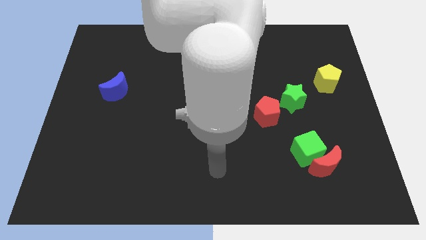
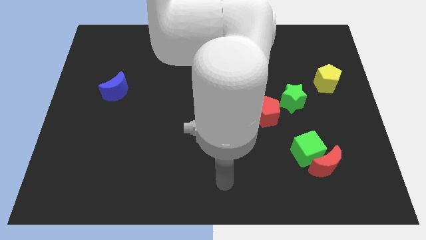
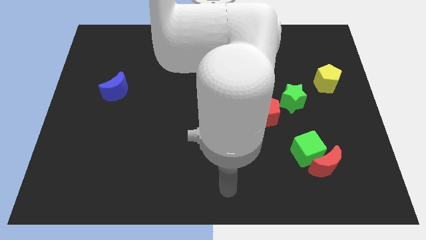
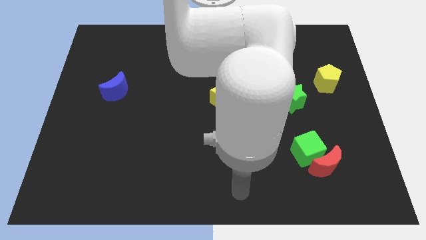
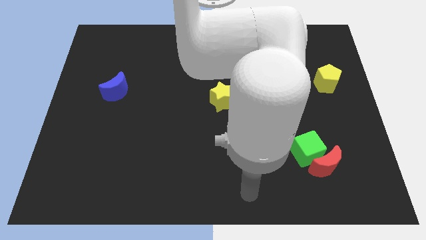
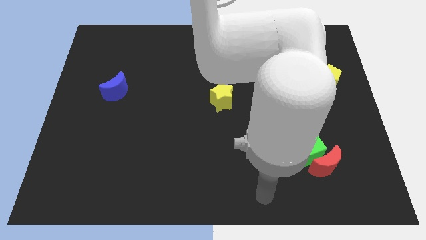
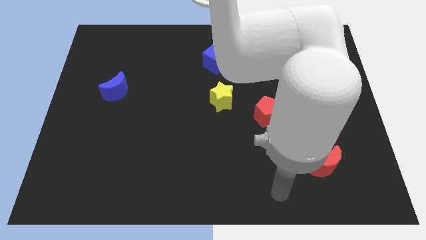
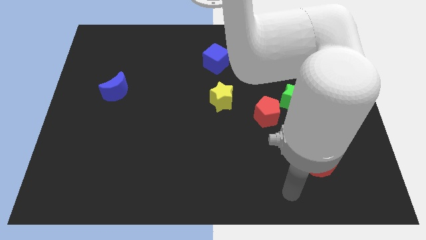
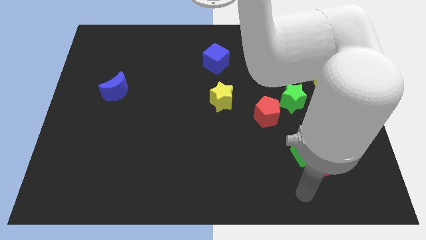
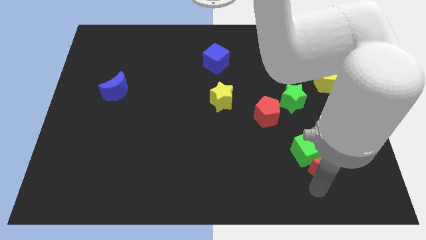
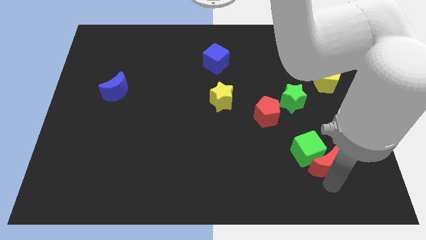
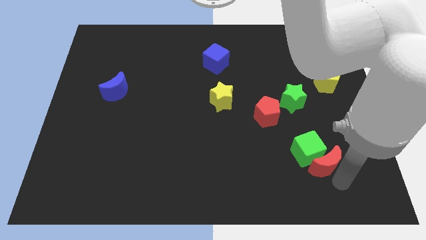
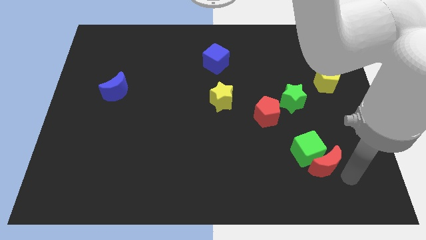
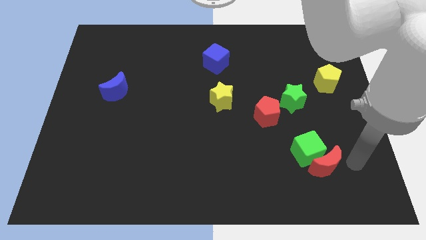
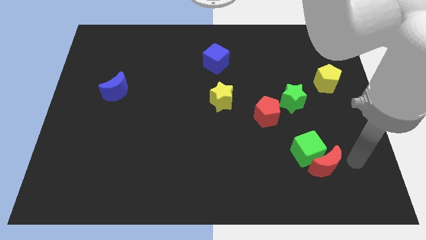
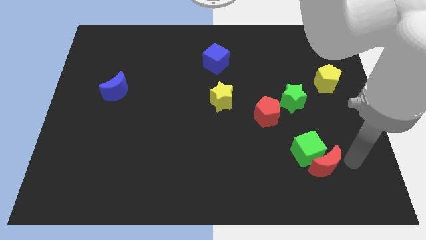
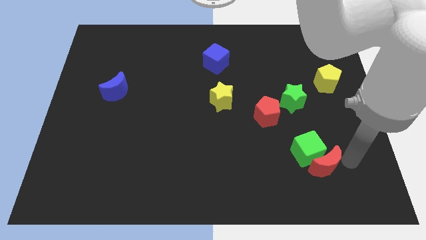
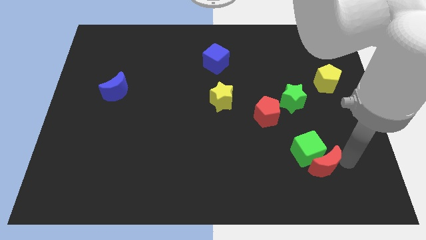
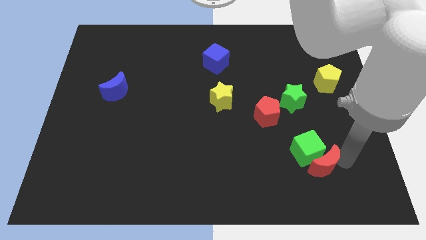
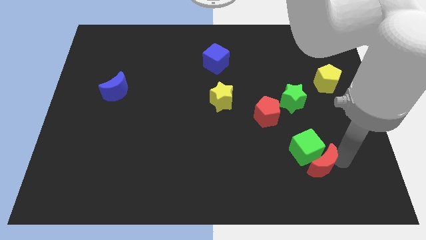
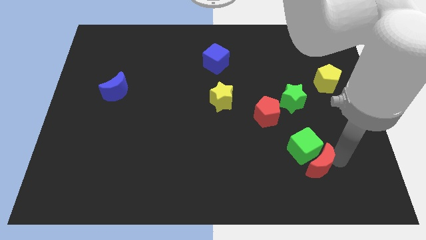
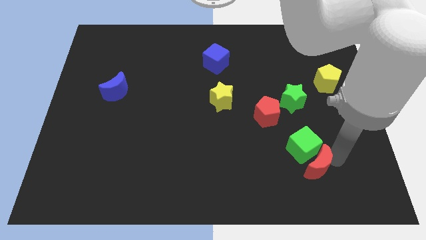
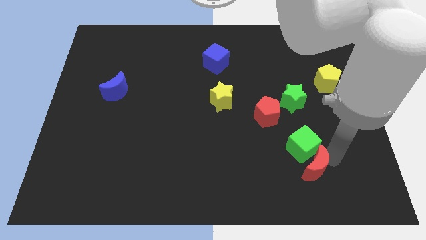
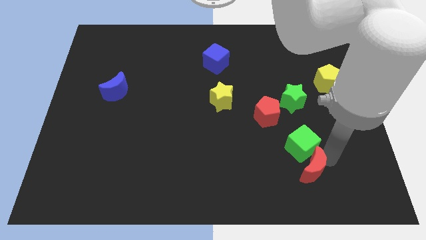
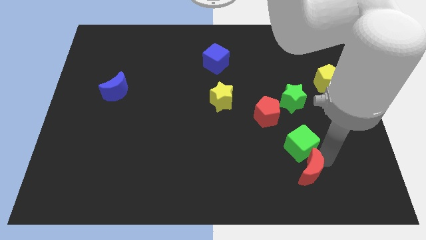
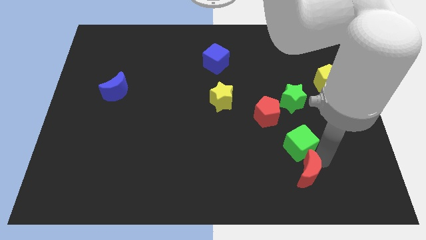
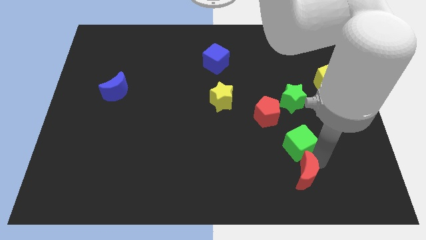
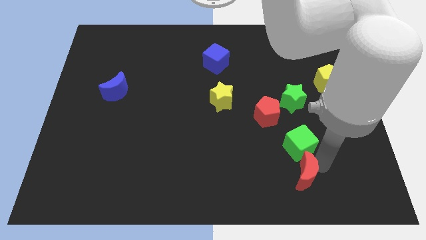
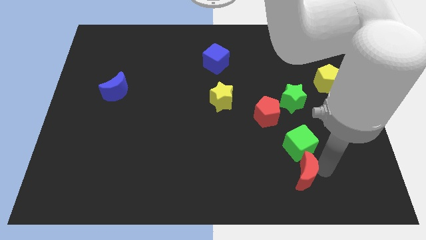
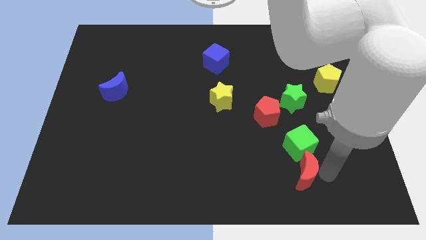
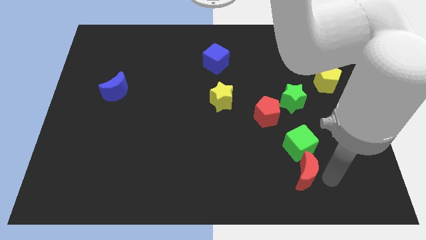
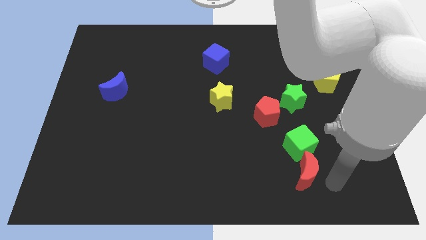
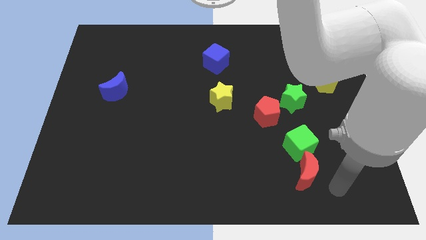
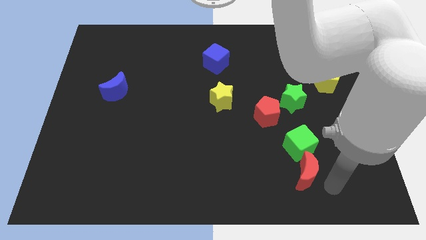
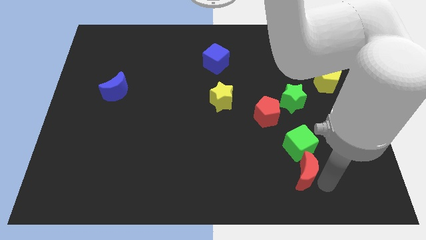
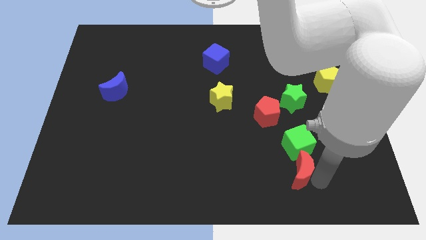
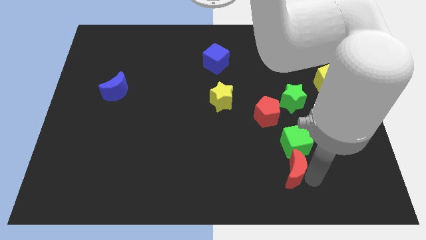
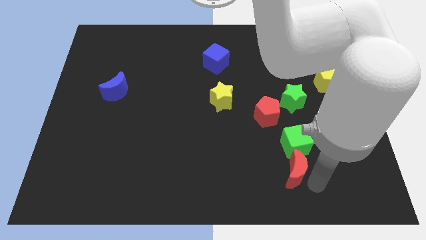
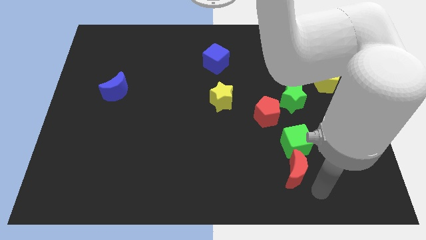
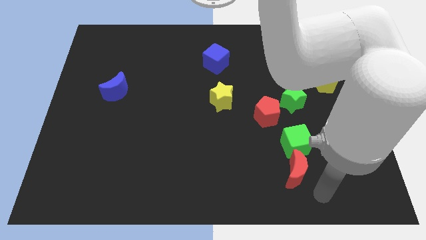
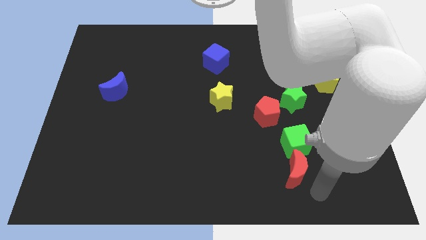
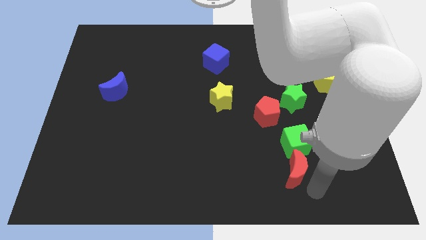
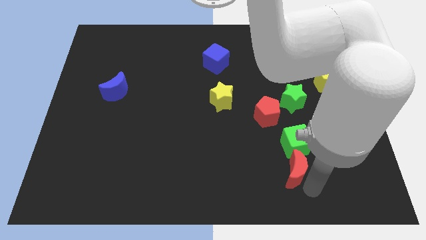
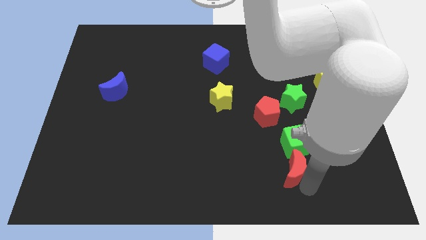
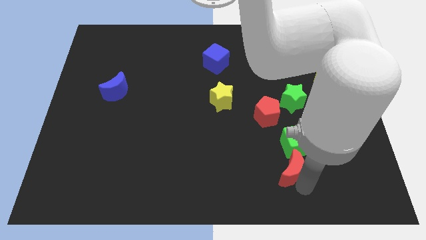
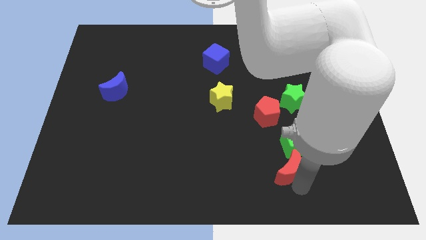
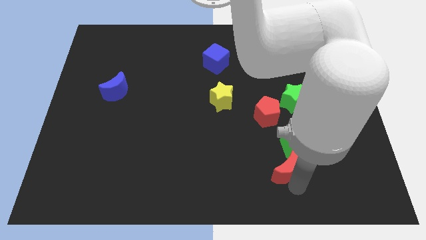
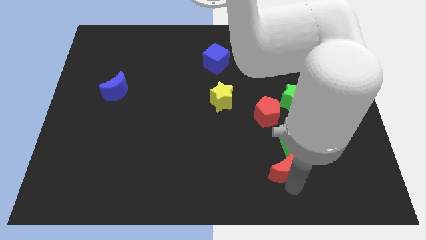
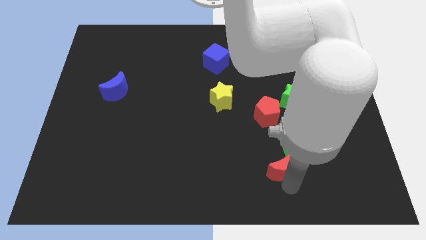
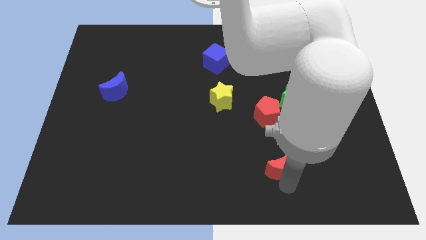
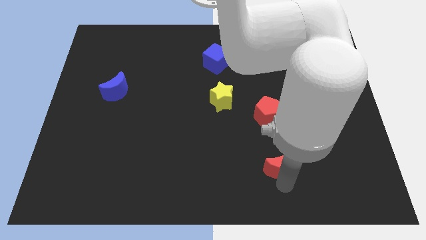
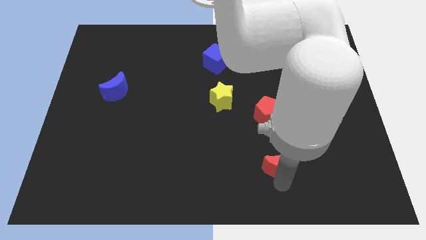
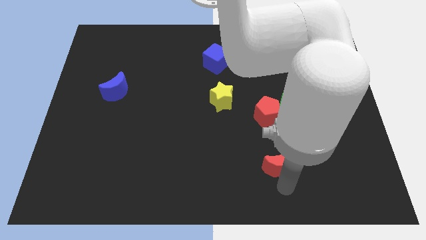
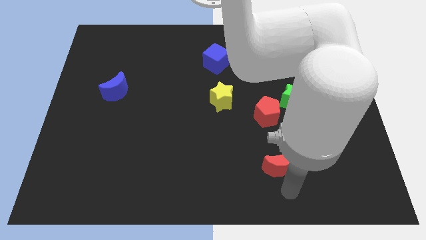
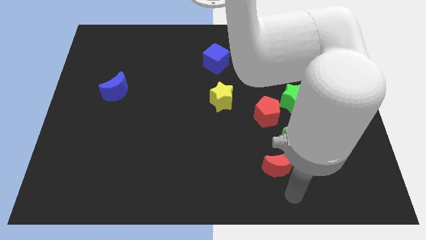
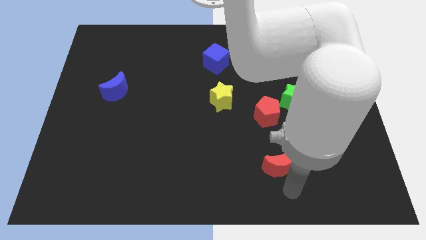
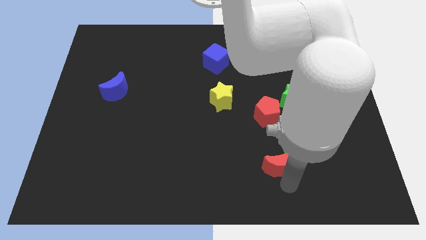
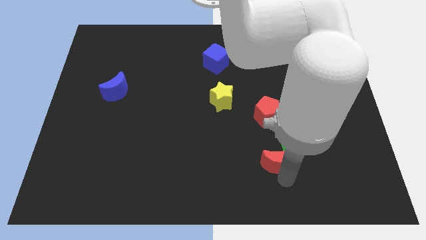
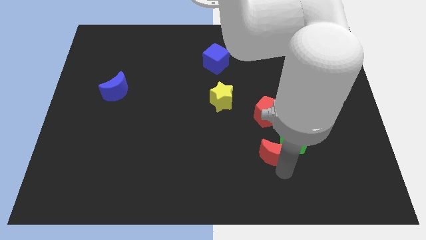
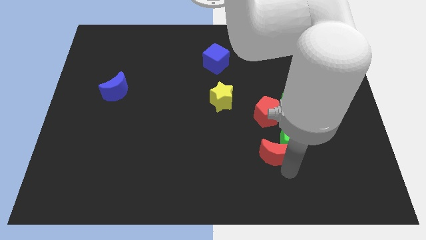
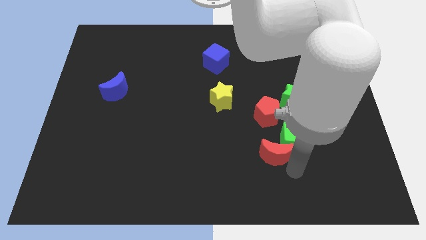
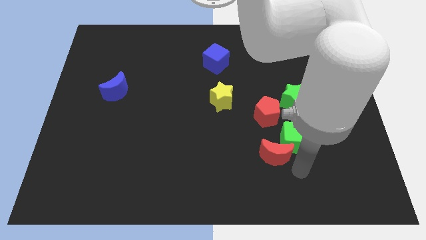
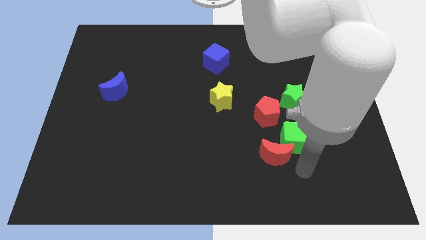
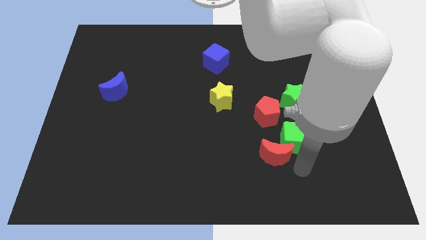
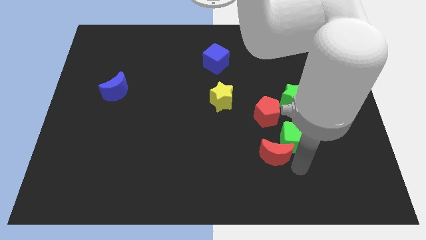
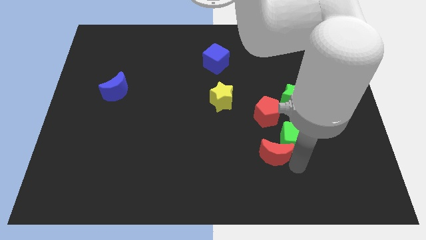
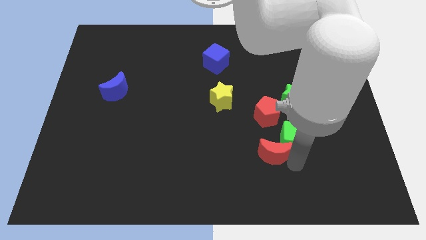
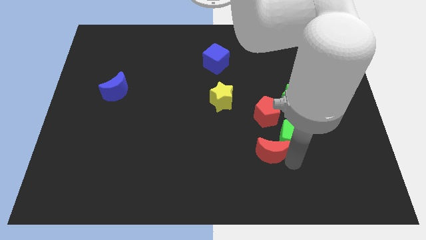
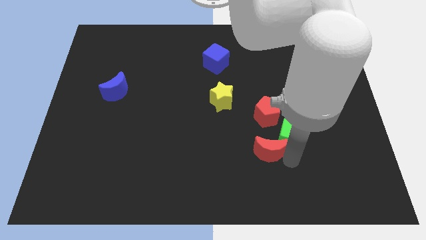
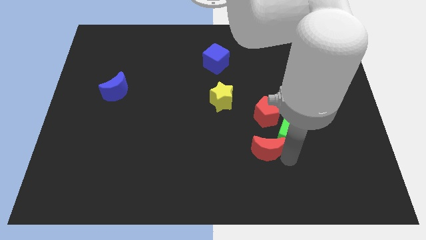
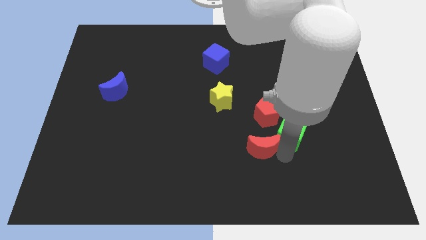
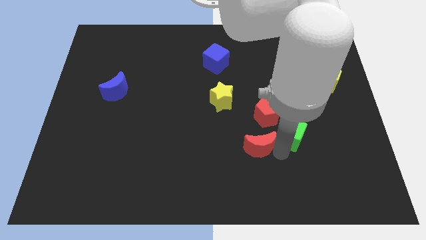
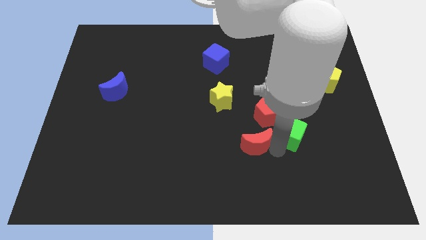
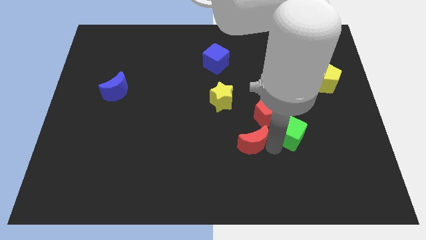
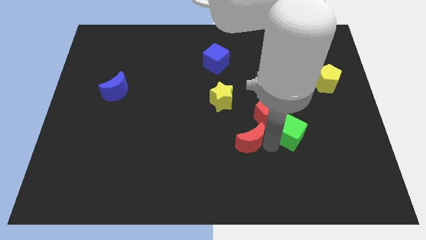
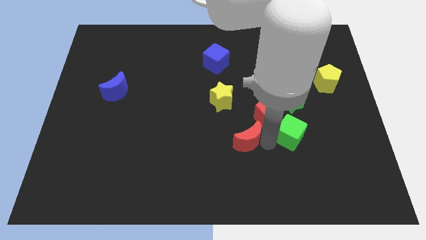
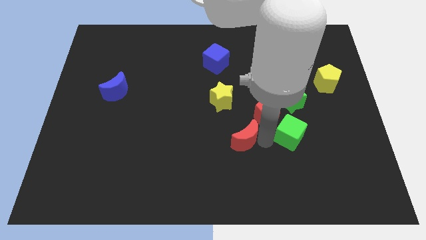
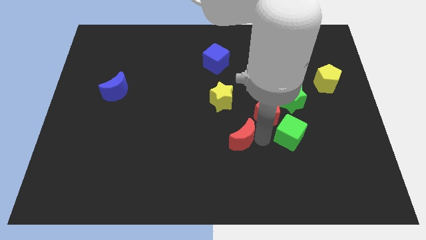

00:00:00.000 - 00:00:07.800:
move the red moon below the yellow star

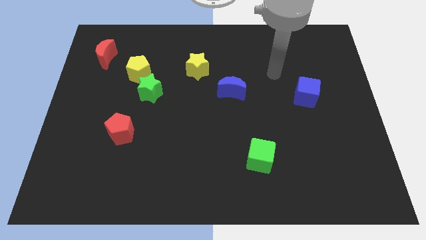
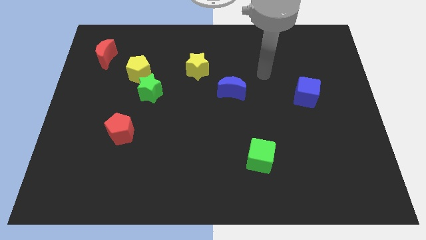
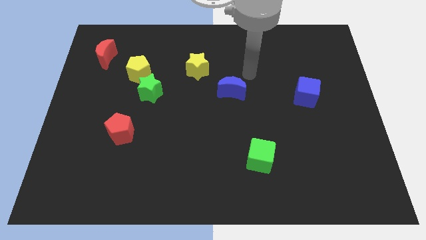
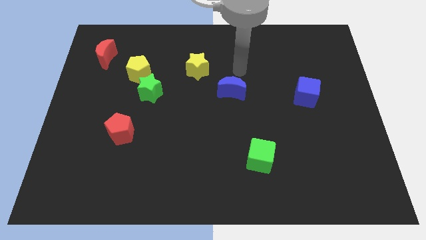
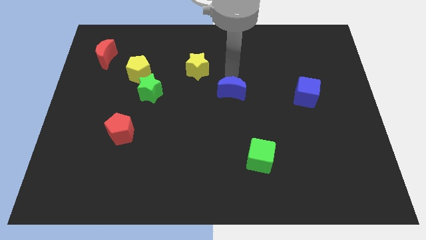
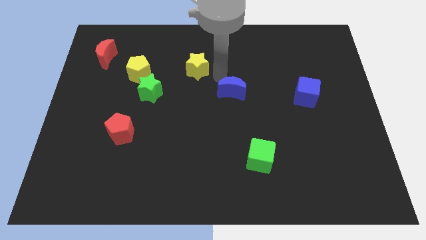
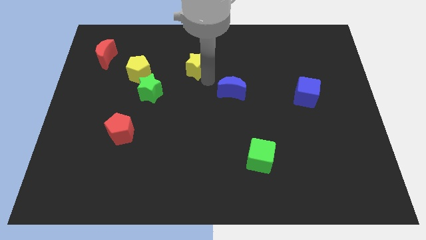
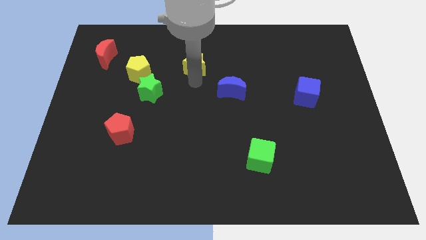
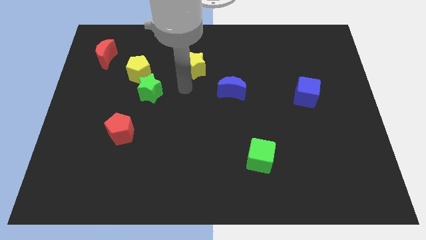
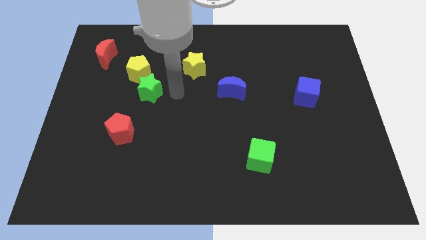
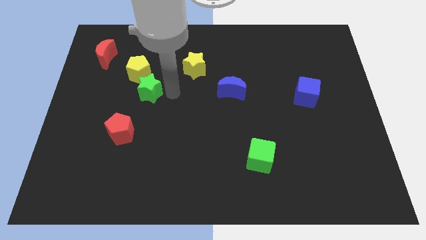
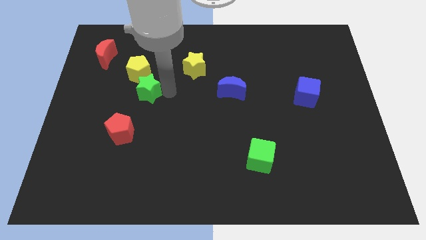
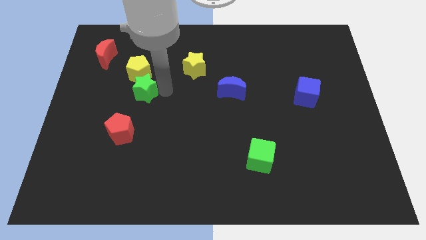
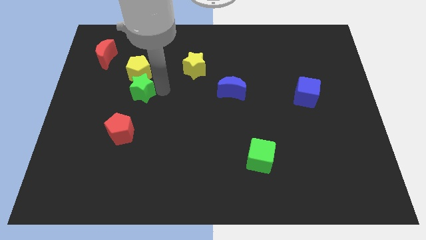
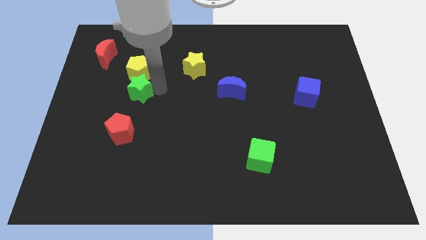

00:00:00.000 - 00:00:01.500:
push the green star to the bottom left of the yellow pentagon
